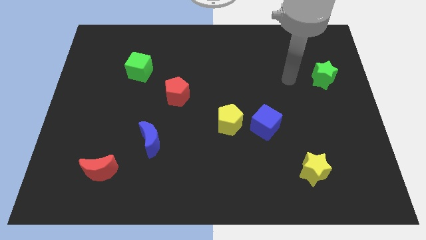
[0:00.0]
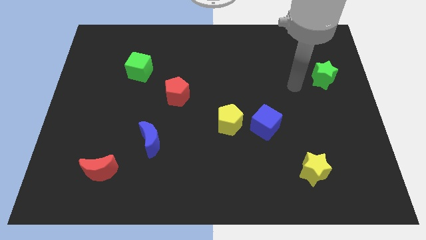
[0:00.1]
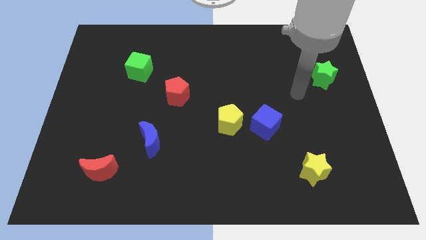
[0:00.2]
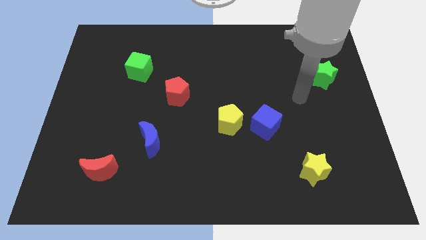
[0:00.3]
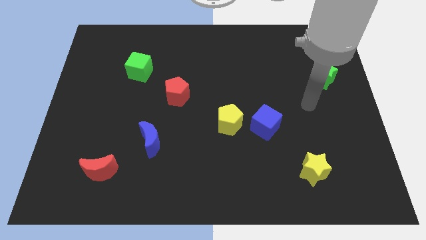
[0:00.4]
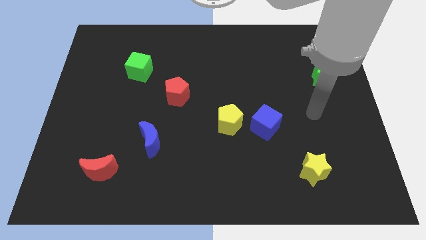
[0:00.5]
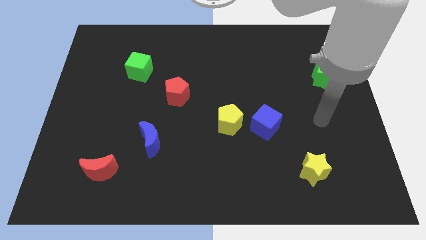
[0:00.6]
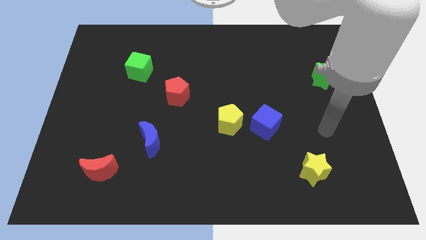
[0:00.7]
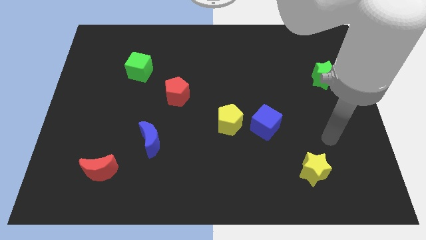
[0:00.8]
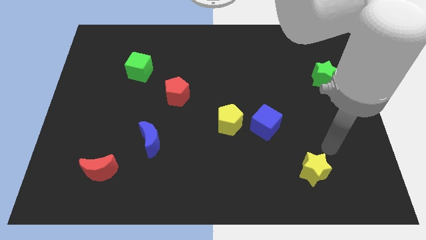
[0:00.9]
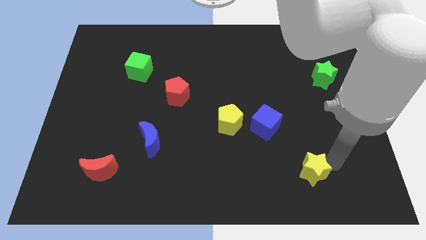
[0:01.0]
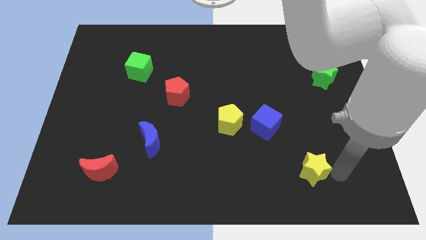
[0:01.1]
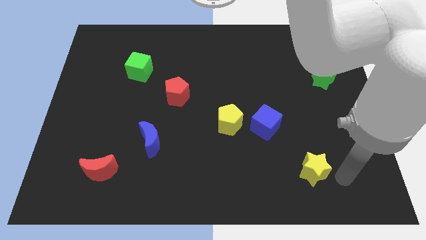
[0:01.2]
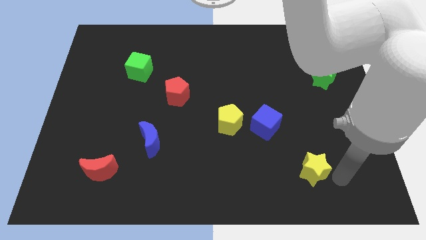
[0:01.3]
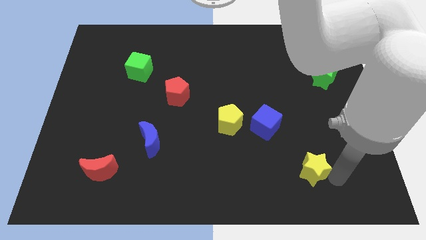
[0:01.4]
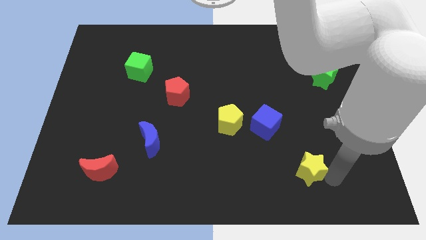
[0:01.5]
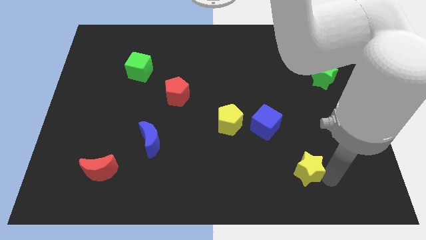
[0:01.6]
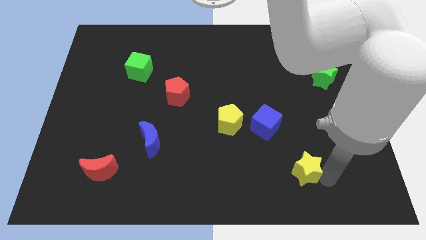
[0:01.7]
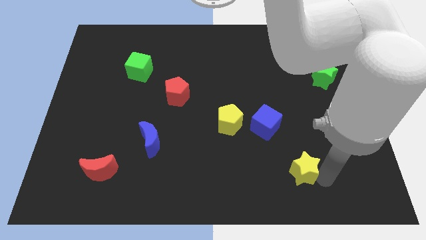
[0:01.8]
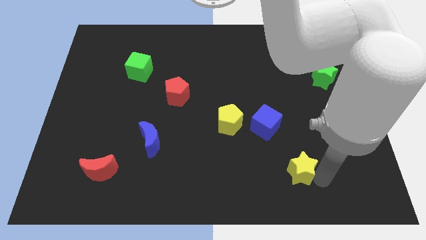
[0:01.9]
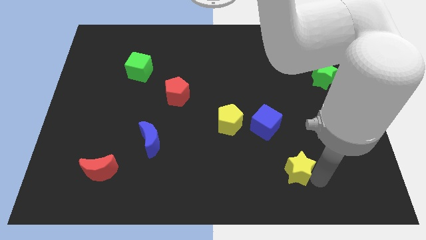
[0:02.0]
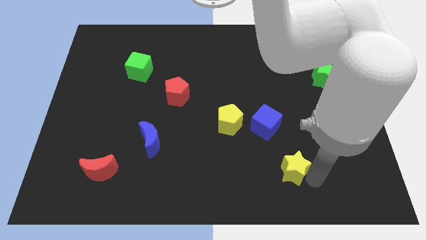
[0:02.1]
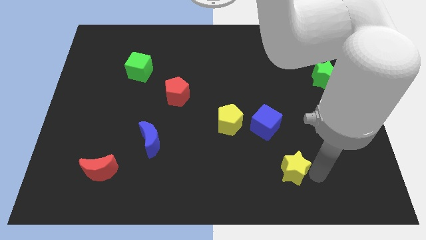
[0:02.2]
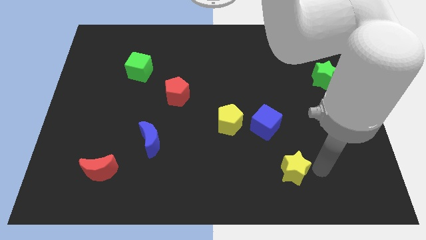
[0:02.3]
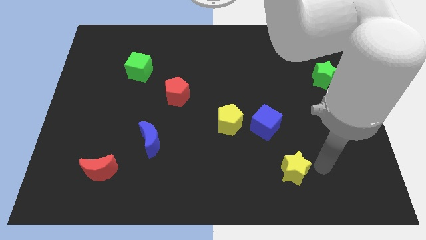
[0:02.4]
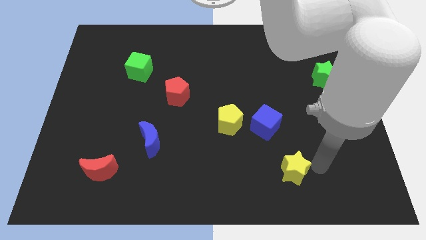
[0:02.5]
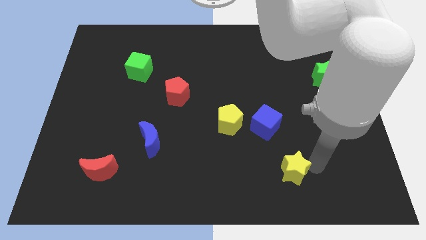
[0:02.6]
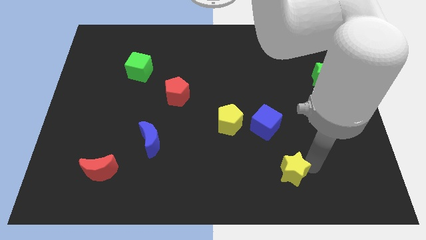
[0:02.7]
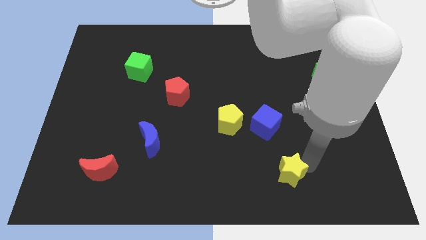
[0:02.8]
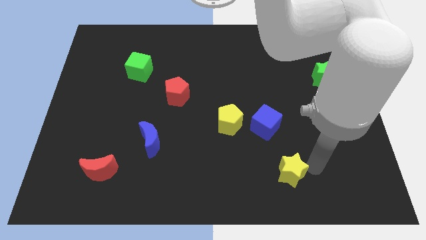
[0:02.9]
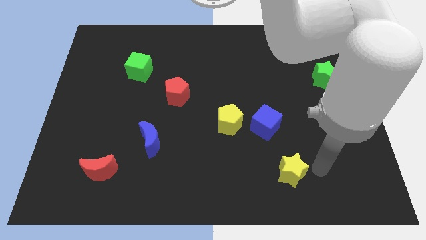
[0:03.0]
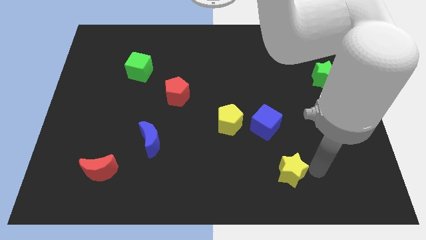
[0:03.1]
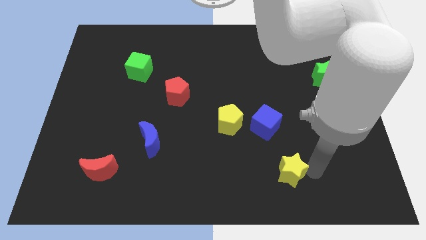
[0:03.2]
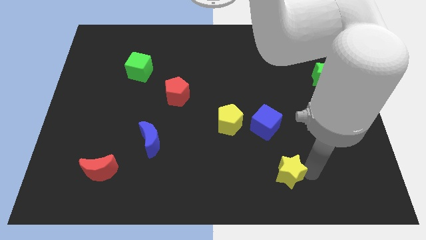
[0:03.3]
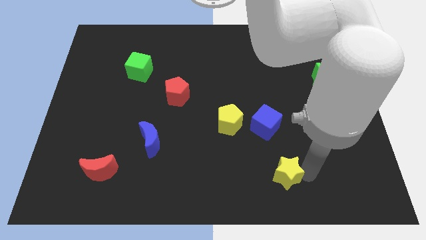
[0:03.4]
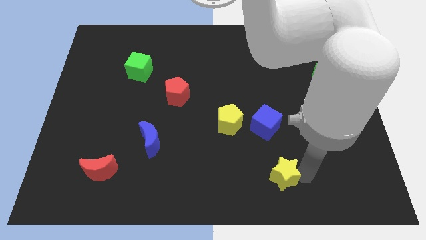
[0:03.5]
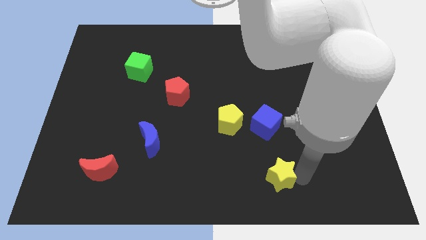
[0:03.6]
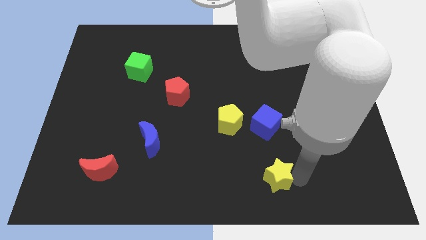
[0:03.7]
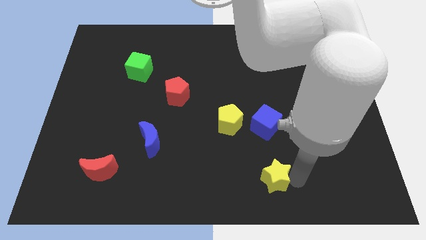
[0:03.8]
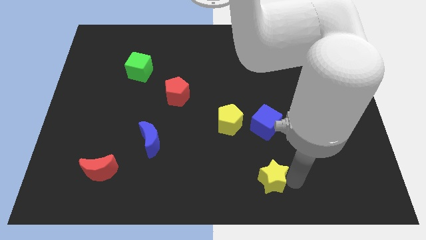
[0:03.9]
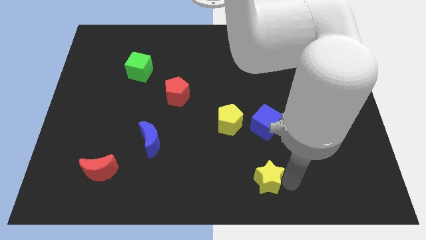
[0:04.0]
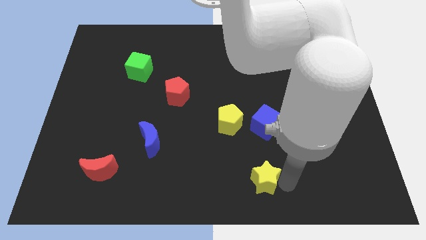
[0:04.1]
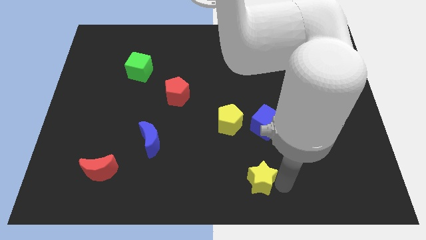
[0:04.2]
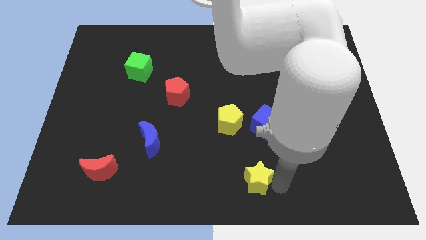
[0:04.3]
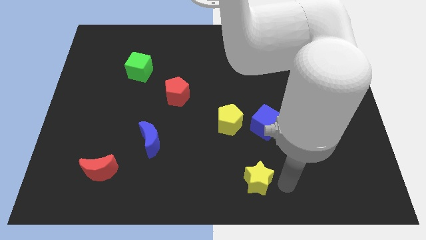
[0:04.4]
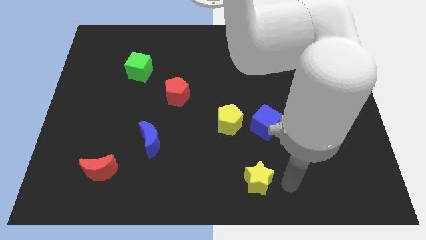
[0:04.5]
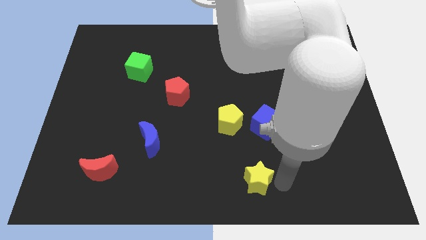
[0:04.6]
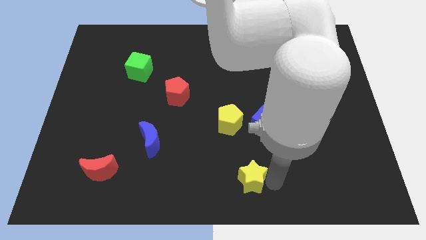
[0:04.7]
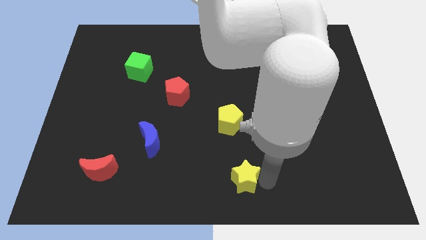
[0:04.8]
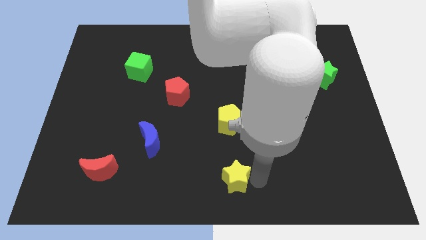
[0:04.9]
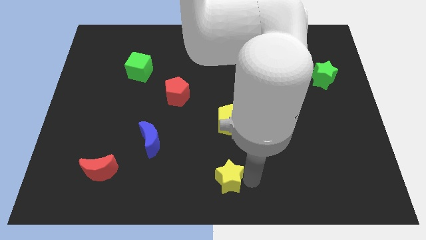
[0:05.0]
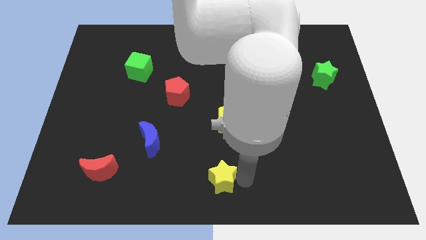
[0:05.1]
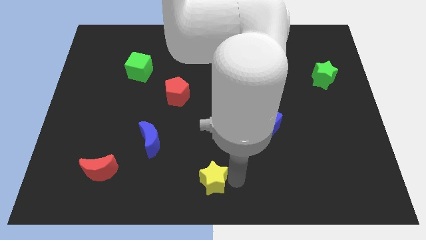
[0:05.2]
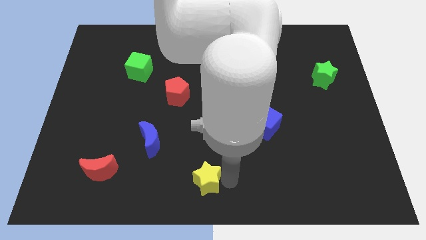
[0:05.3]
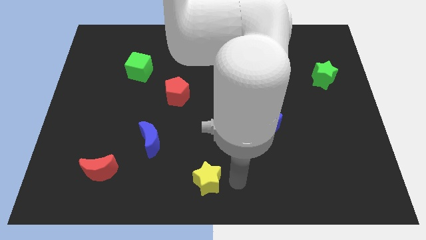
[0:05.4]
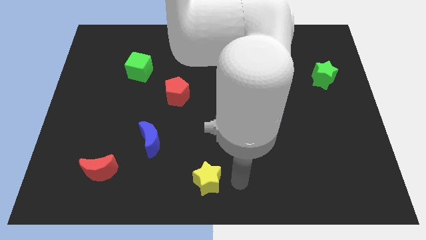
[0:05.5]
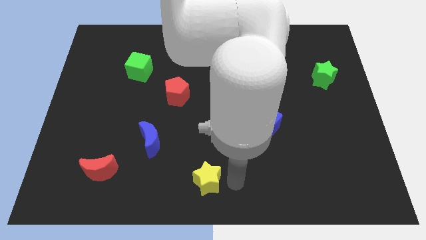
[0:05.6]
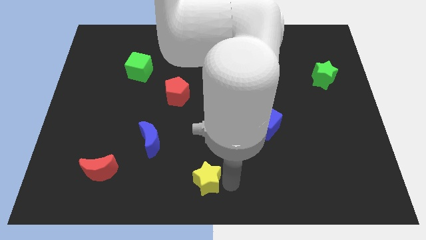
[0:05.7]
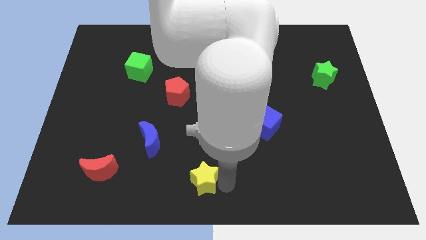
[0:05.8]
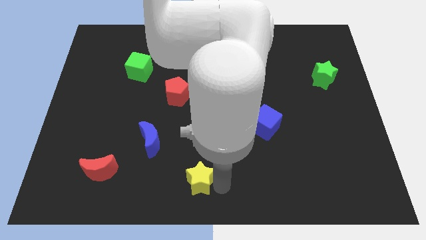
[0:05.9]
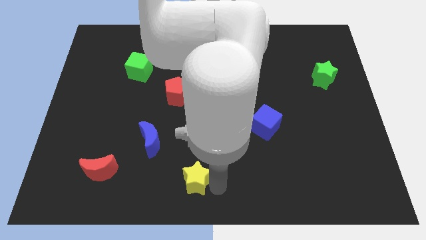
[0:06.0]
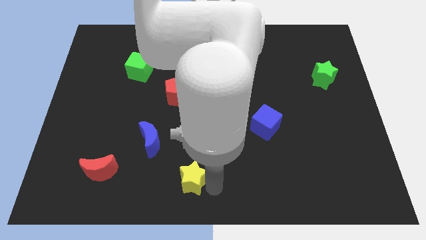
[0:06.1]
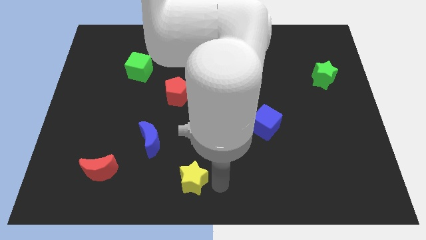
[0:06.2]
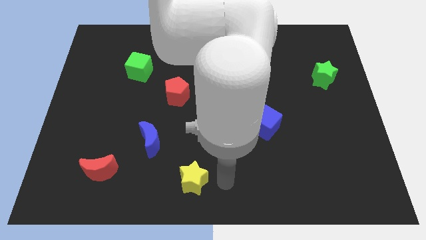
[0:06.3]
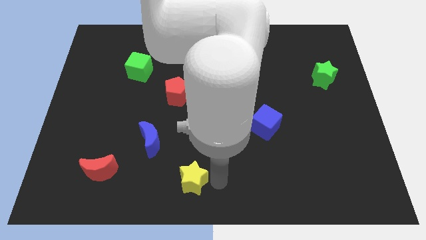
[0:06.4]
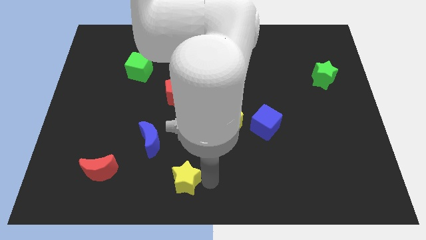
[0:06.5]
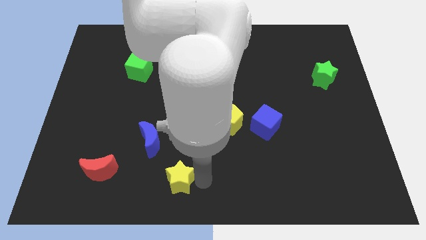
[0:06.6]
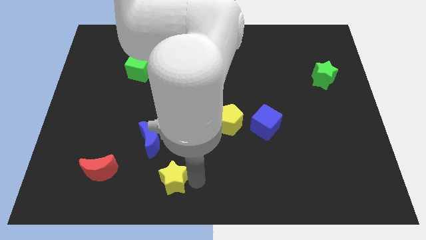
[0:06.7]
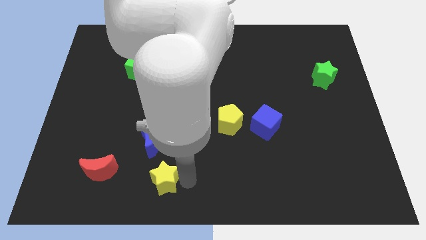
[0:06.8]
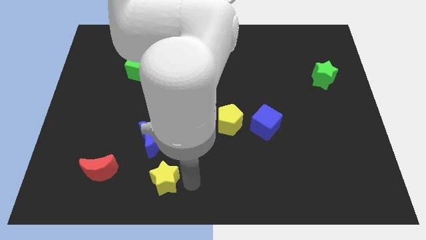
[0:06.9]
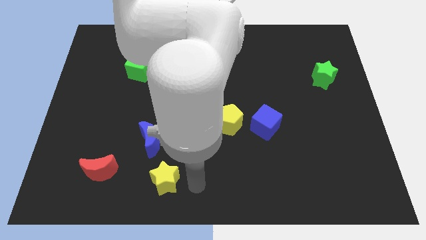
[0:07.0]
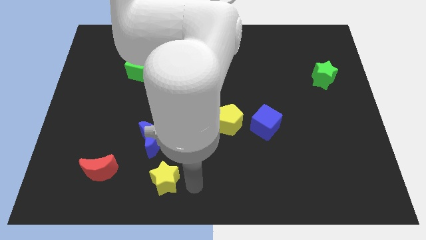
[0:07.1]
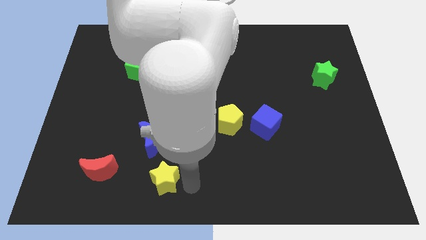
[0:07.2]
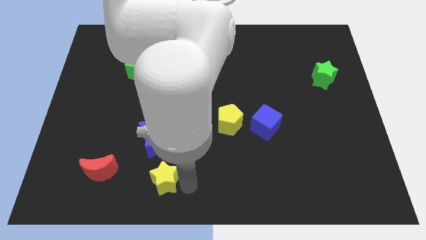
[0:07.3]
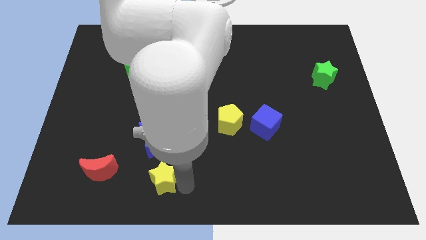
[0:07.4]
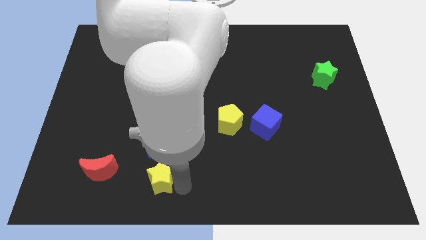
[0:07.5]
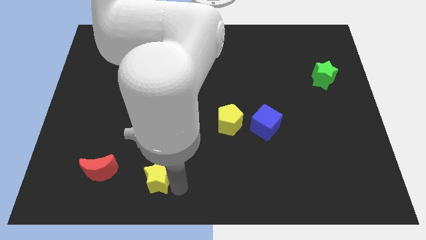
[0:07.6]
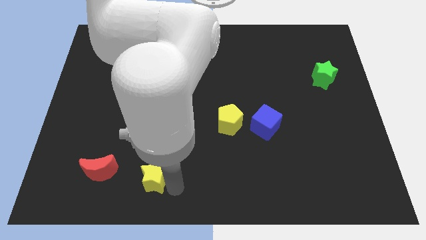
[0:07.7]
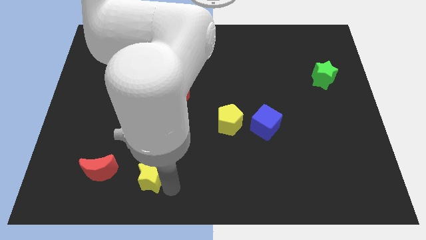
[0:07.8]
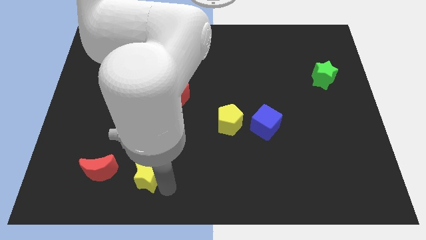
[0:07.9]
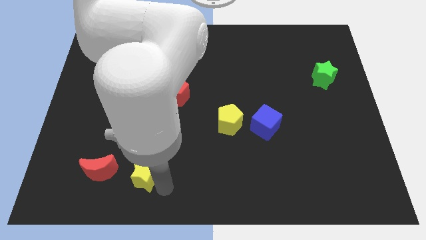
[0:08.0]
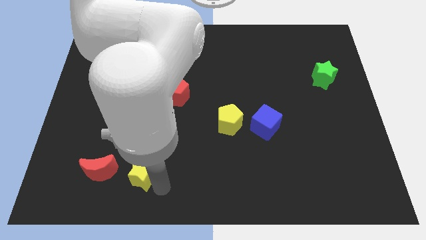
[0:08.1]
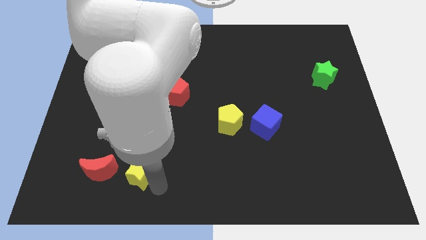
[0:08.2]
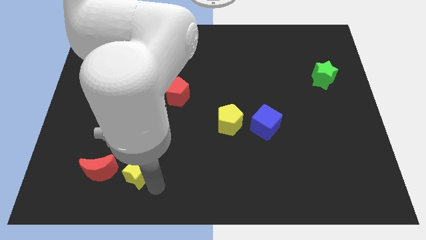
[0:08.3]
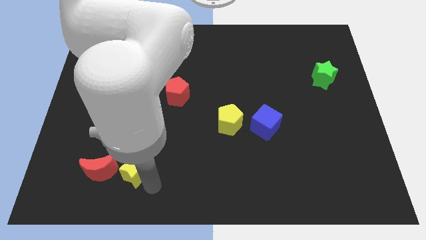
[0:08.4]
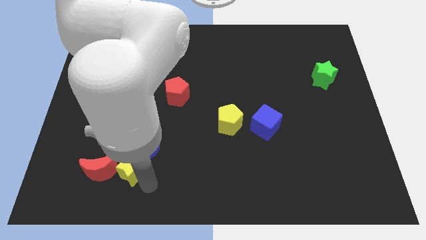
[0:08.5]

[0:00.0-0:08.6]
move the yellow star diagonally up and to the right of the red moon
